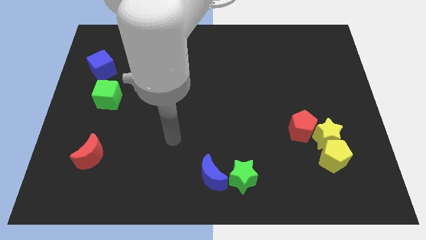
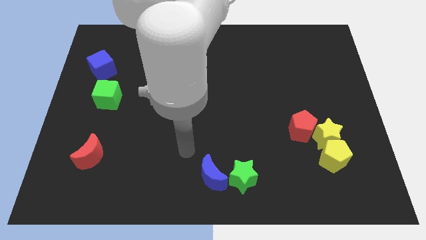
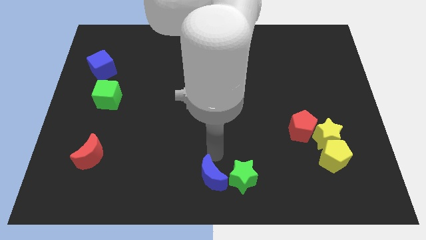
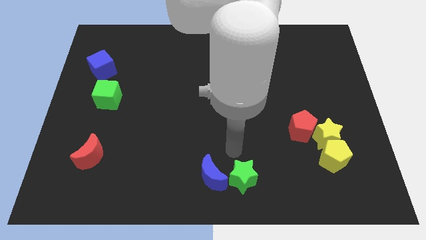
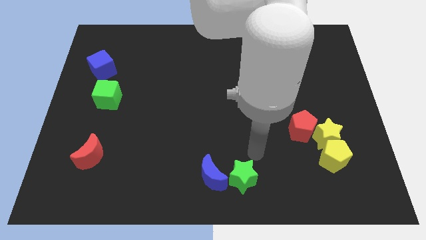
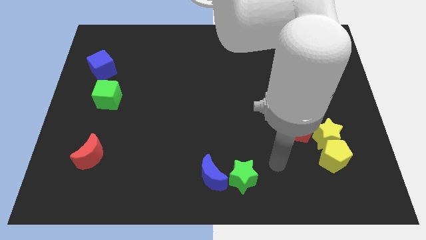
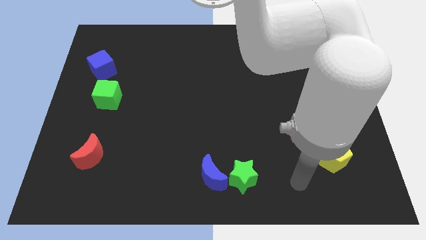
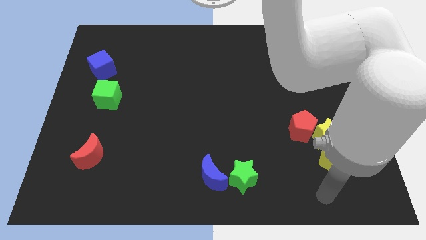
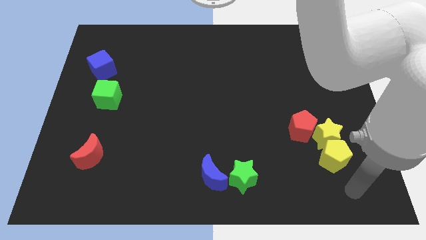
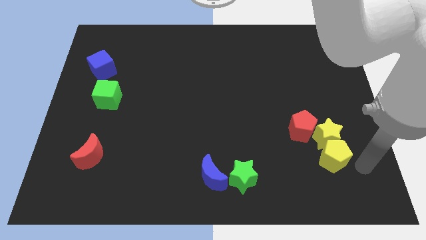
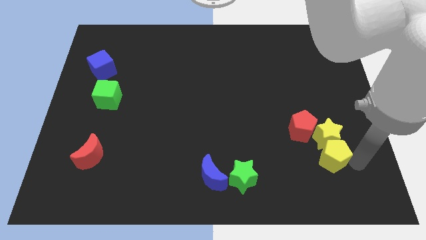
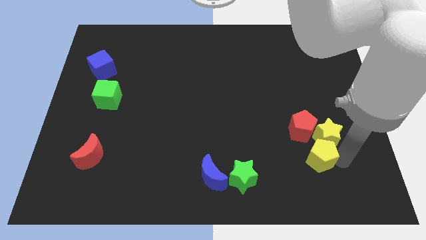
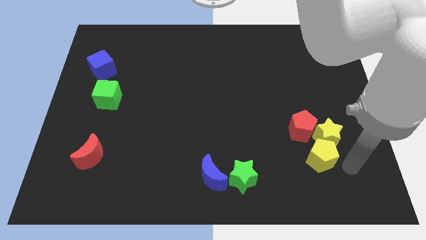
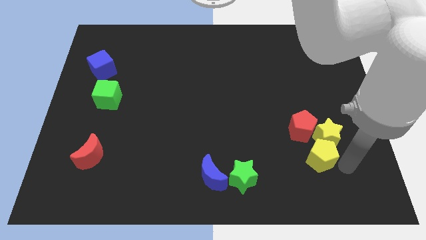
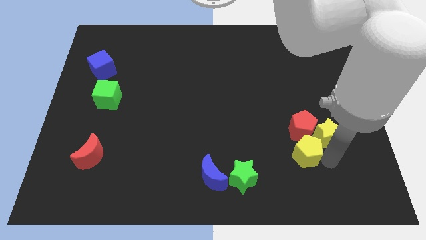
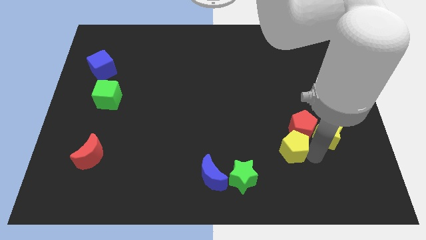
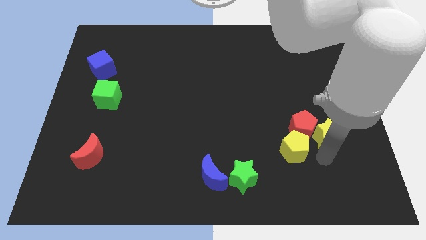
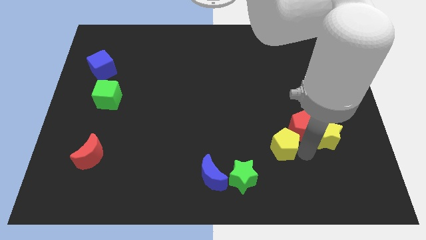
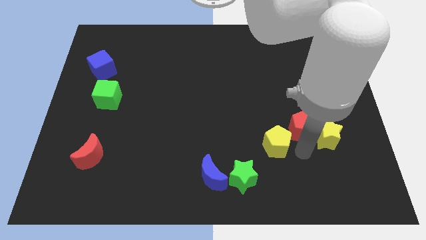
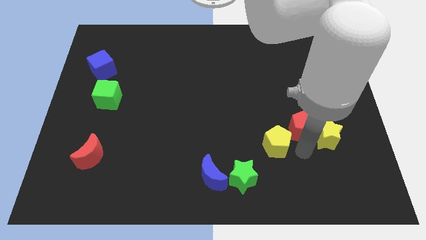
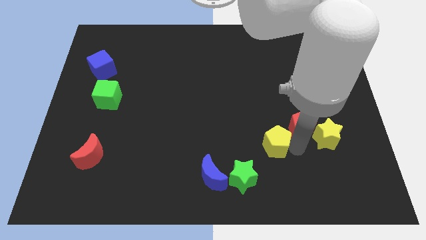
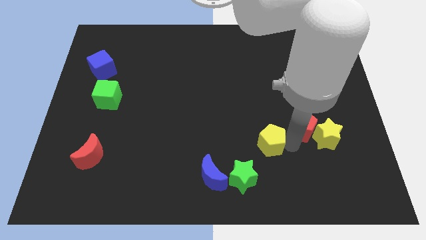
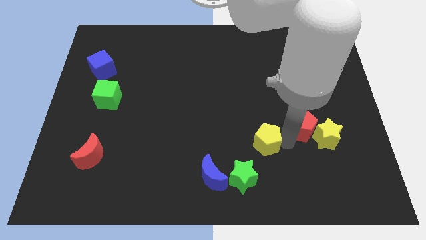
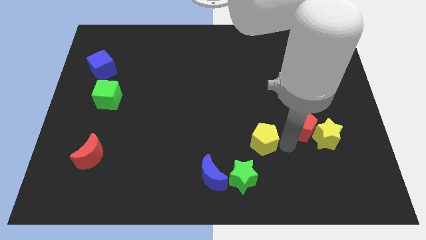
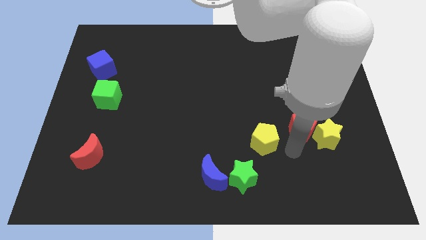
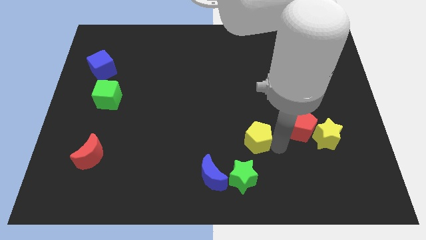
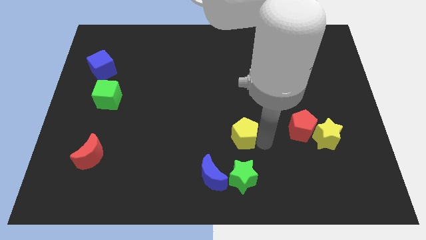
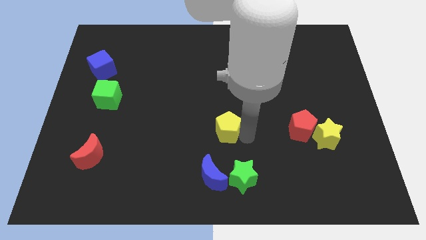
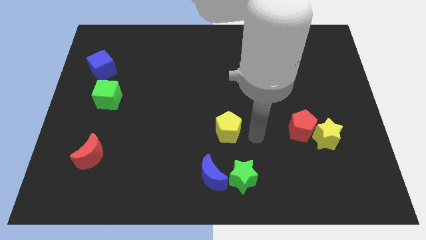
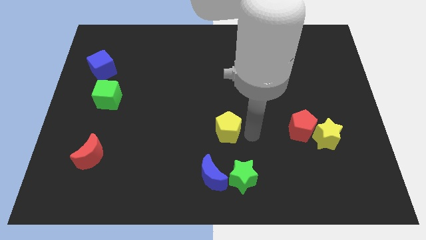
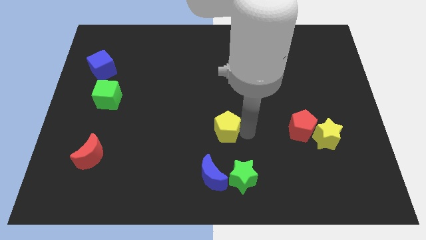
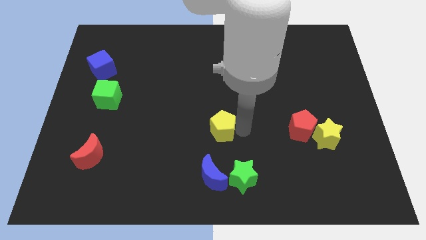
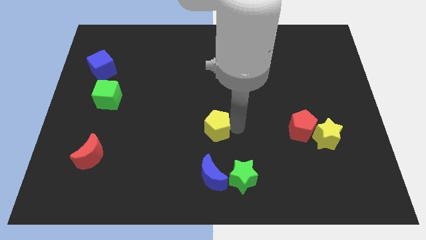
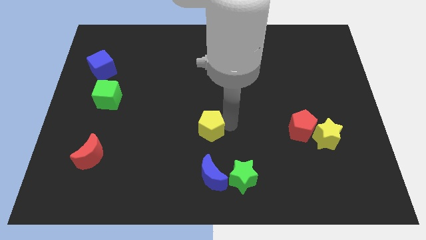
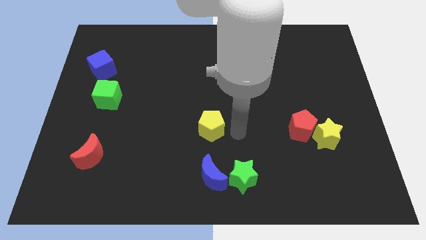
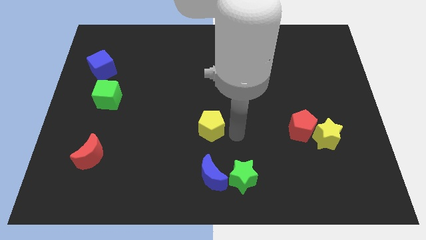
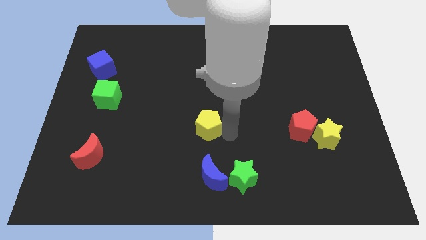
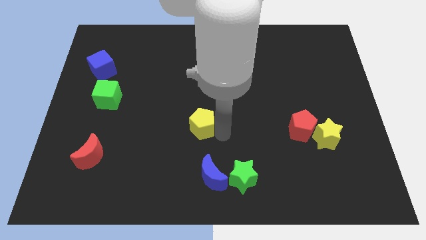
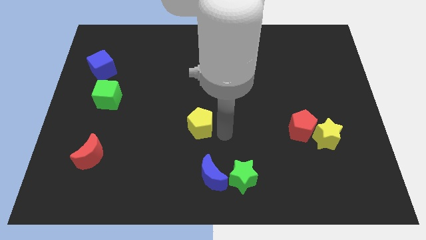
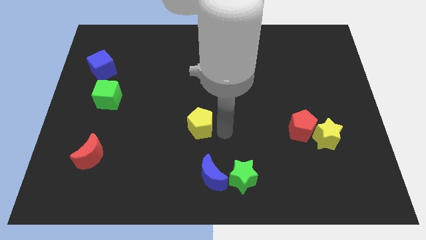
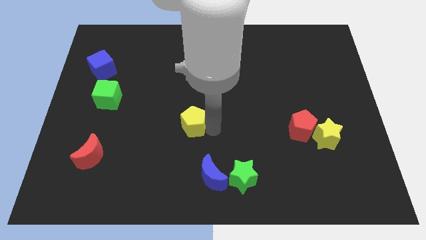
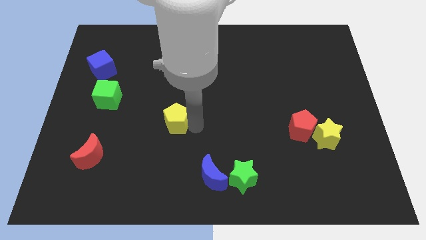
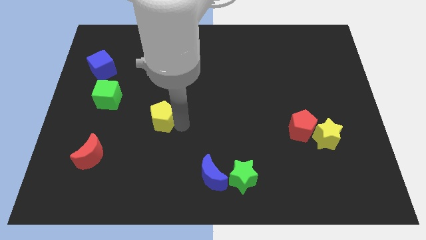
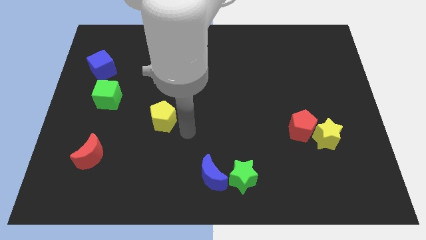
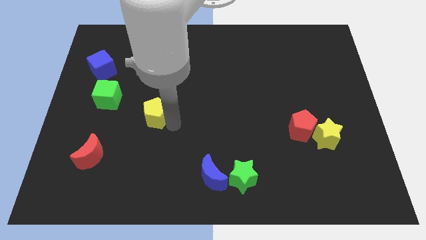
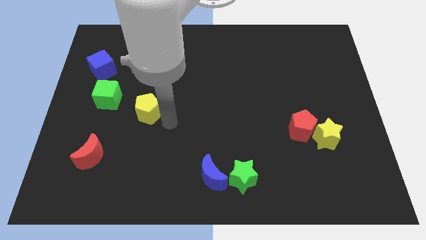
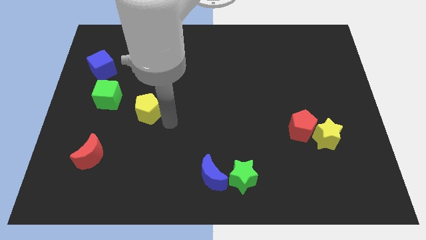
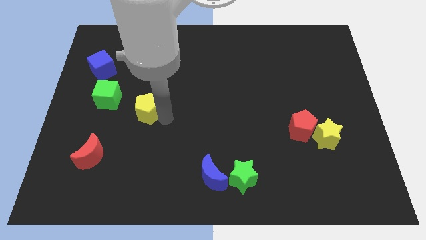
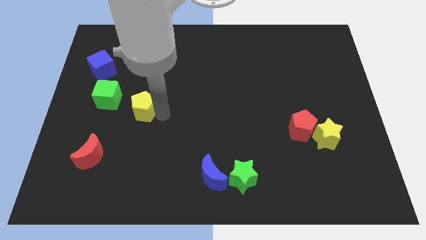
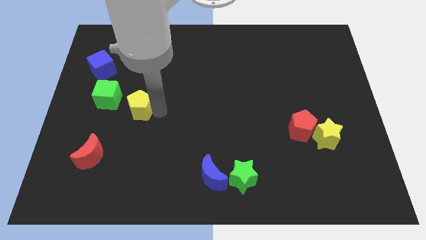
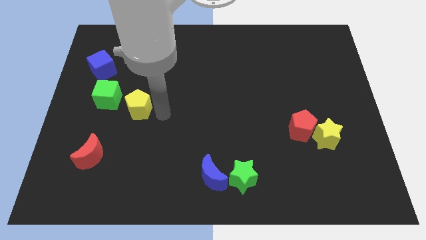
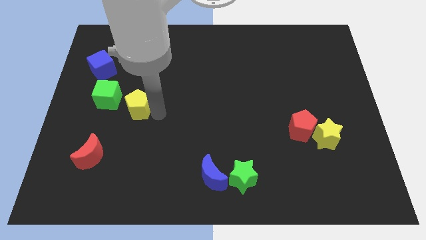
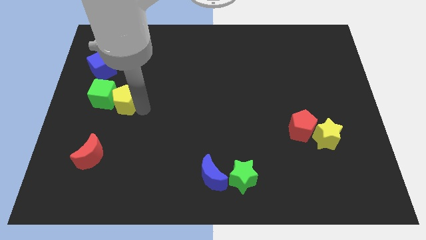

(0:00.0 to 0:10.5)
move the yellow pentagon next to the green cube

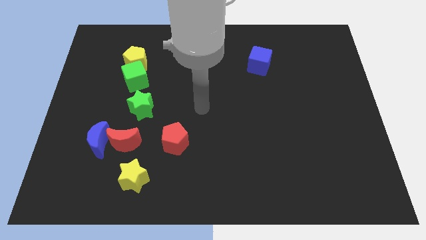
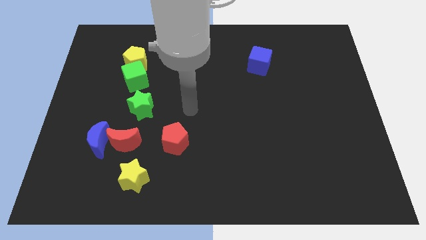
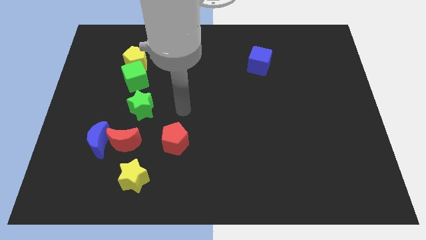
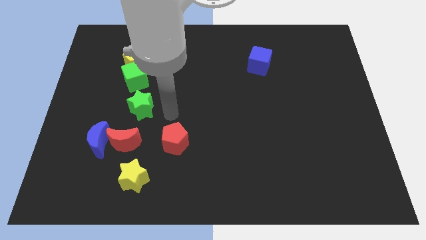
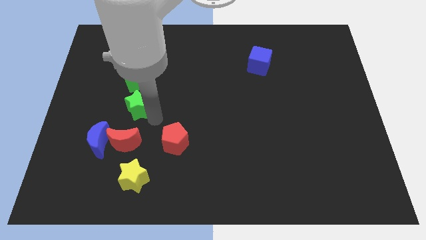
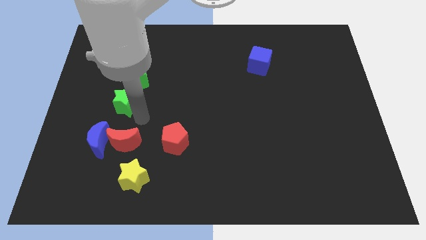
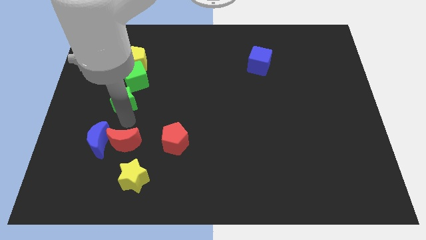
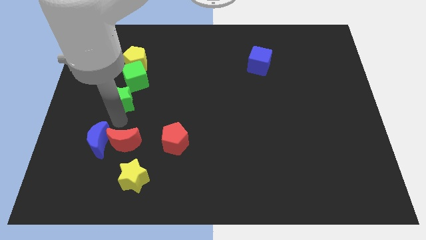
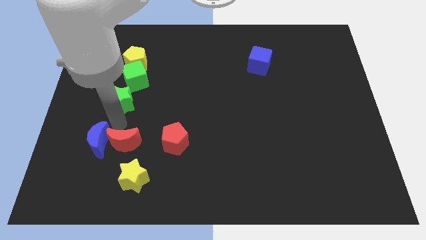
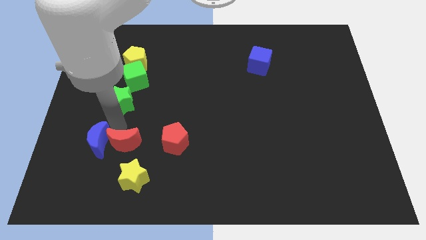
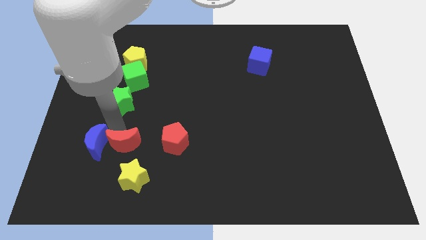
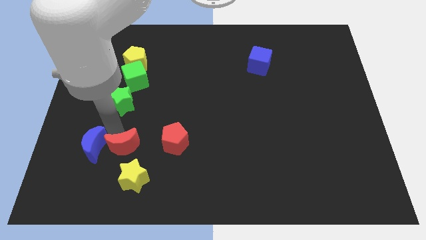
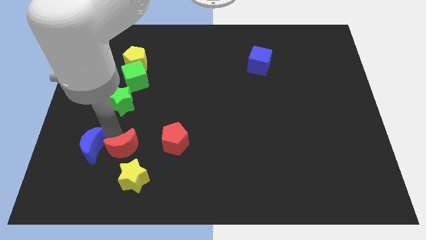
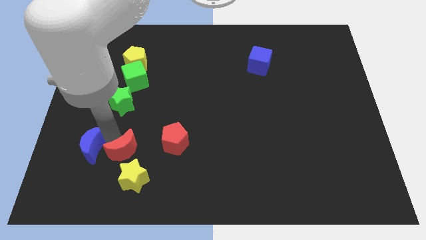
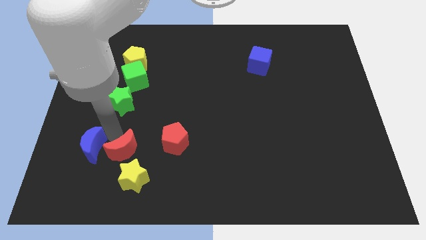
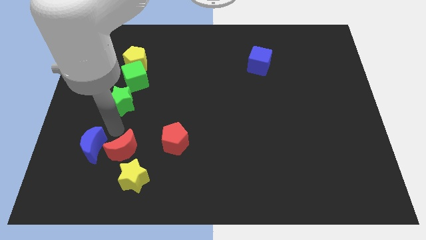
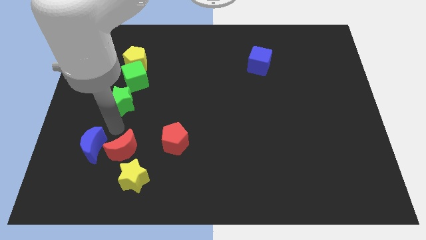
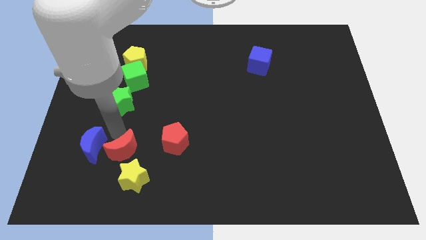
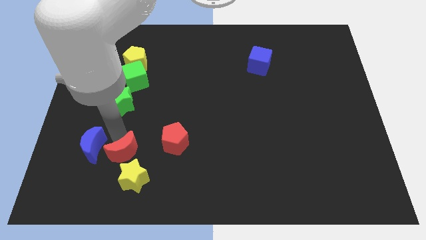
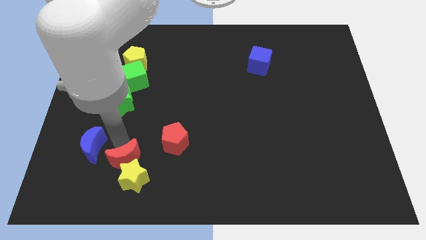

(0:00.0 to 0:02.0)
put the red moon to the yellow star

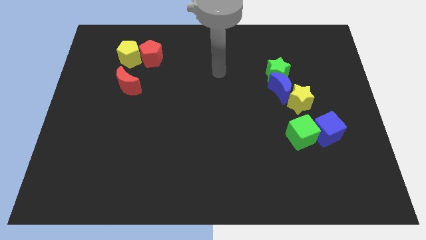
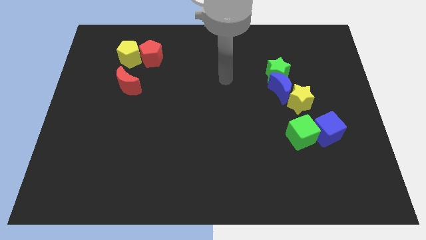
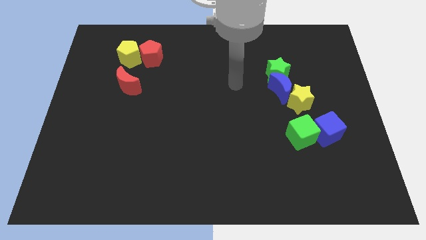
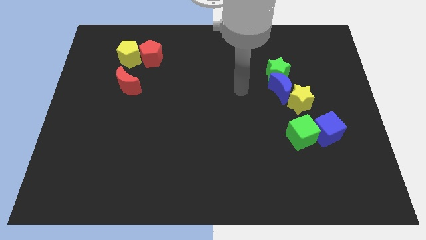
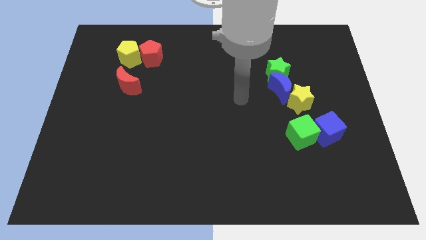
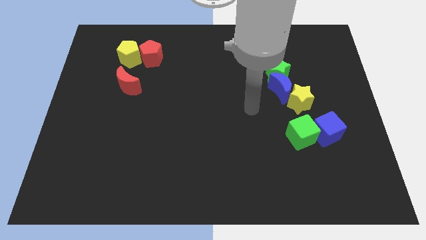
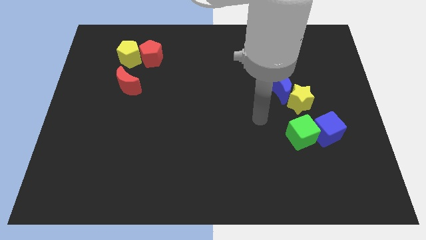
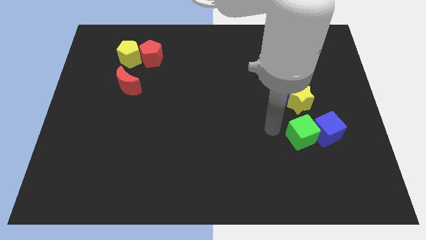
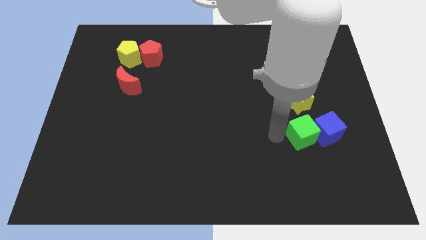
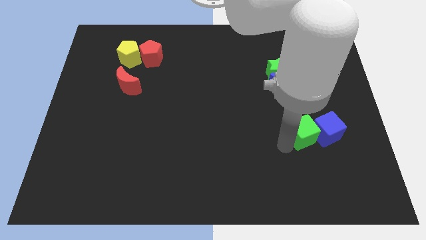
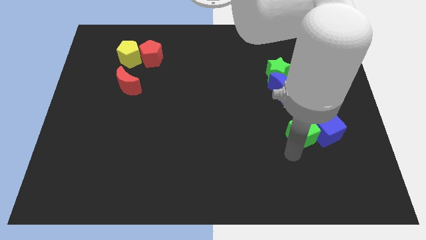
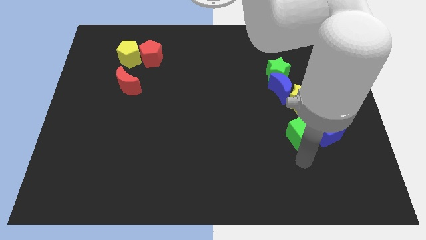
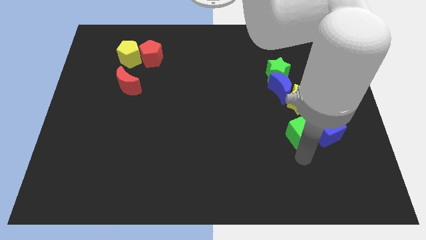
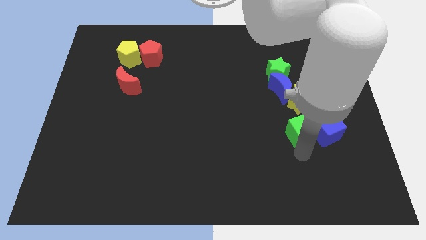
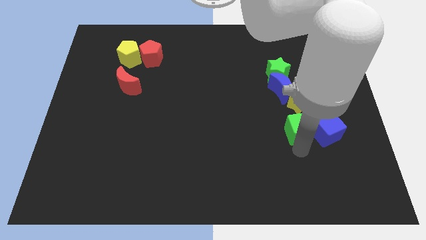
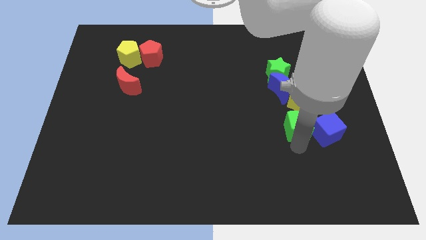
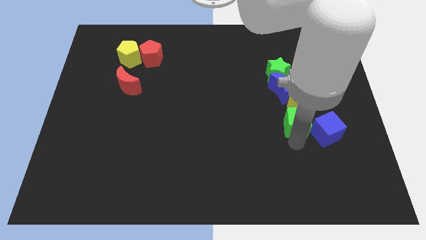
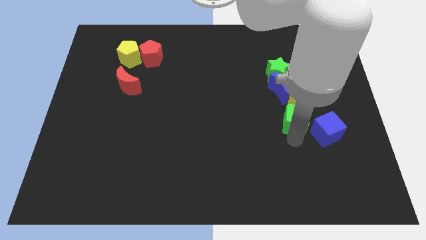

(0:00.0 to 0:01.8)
push the green cube towards the yellow star
